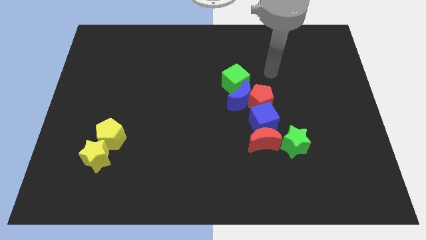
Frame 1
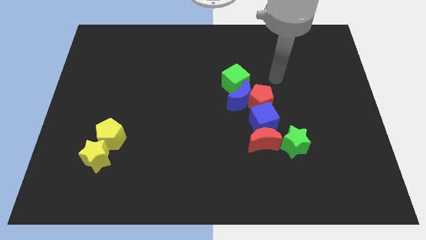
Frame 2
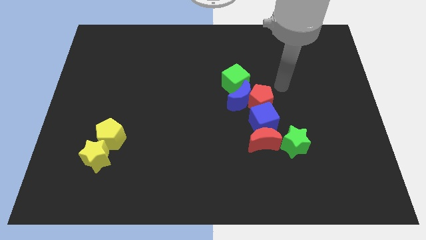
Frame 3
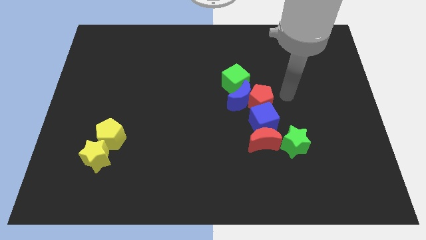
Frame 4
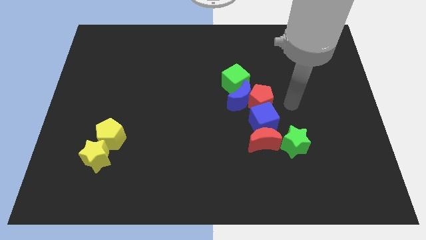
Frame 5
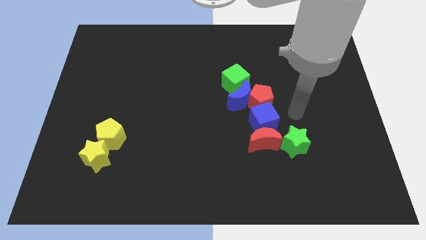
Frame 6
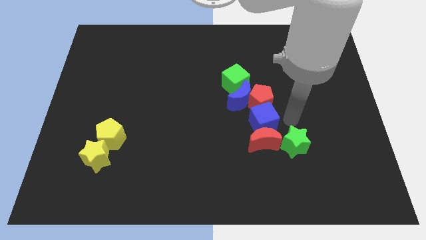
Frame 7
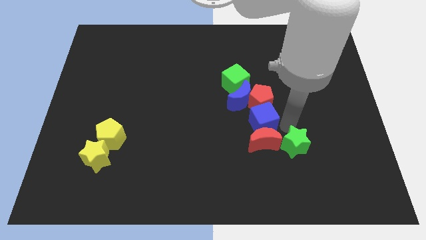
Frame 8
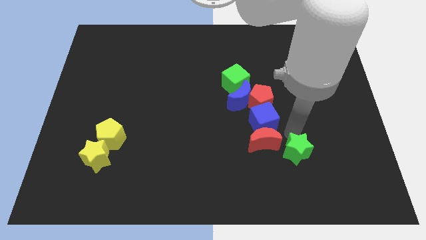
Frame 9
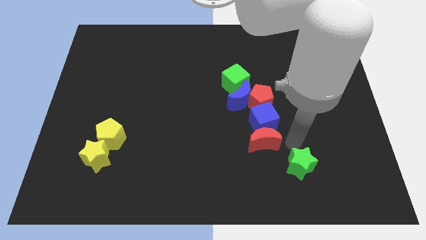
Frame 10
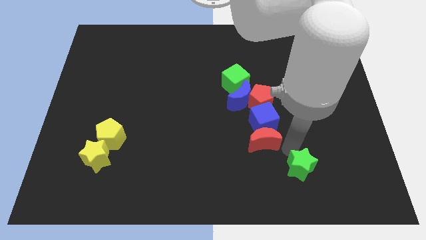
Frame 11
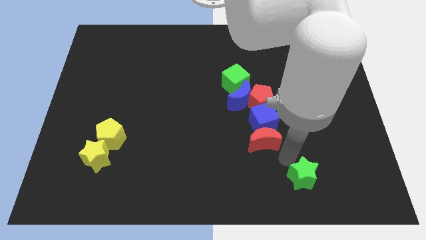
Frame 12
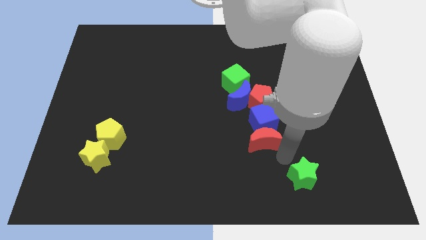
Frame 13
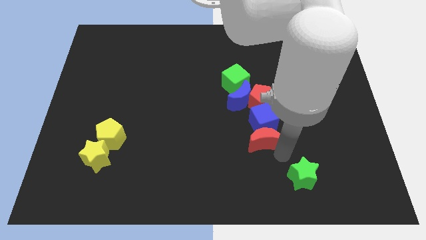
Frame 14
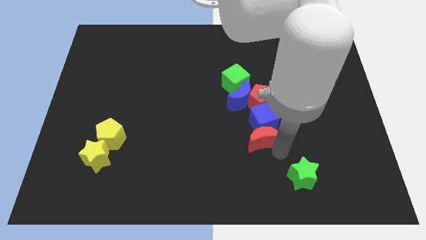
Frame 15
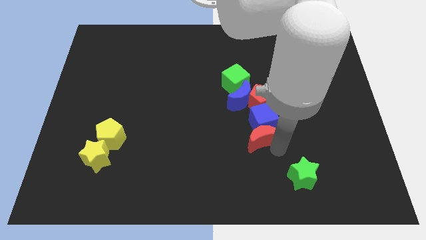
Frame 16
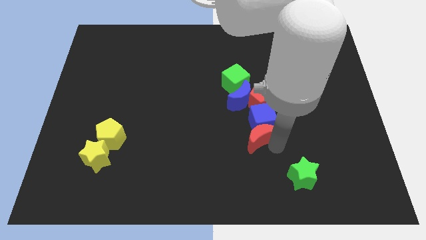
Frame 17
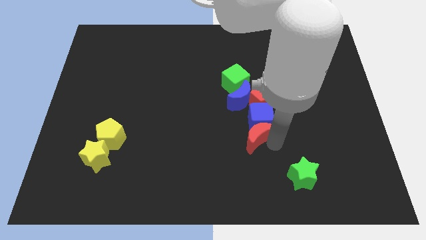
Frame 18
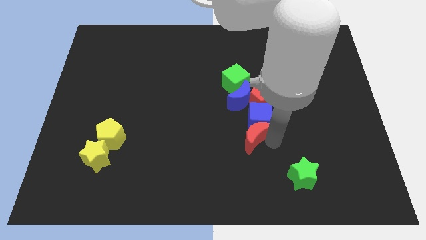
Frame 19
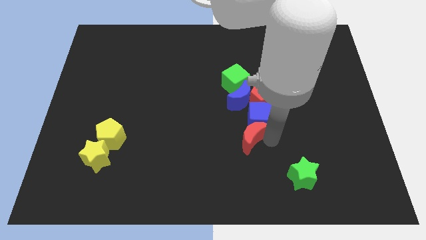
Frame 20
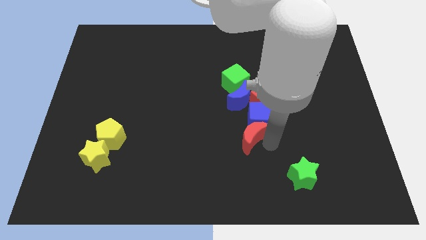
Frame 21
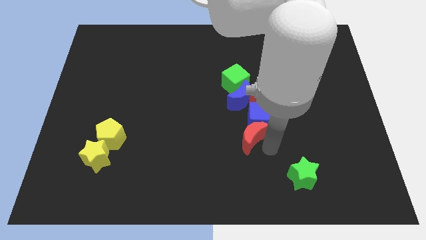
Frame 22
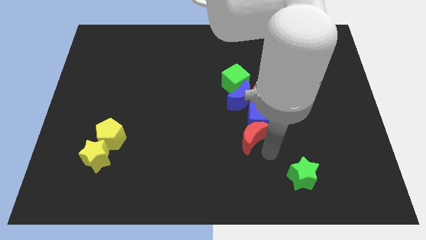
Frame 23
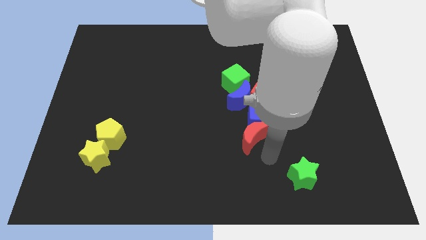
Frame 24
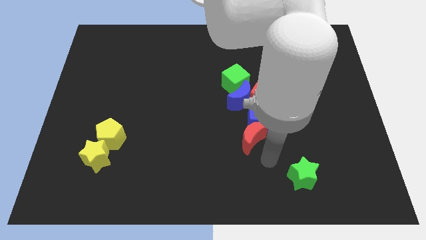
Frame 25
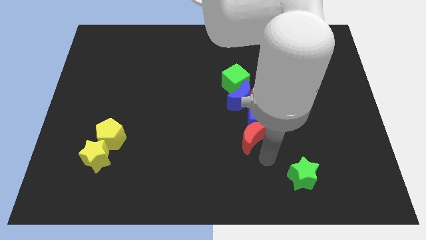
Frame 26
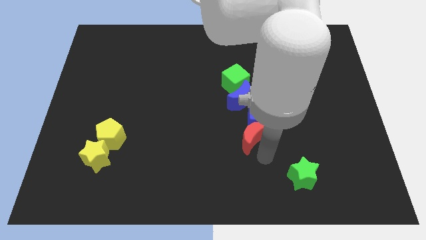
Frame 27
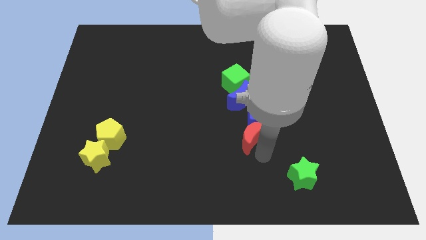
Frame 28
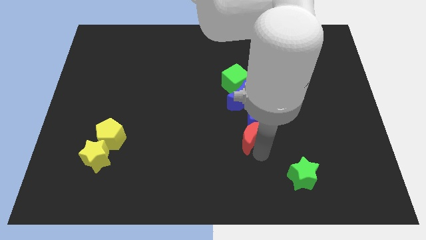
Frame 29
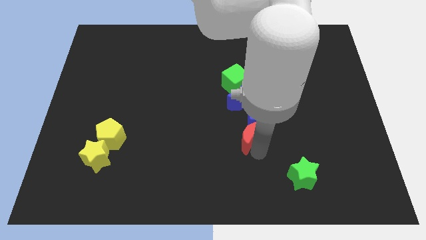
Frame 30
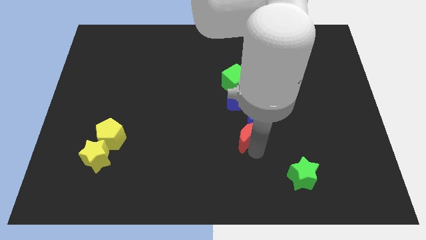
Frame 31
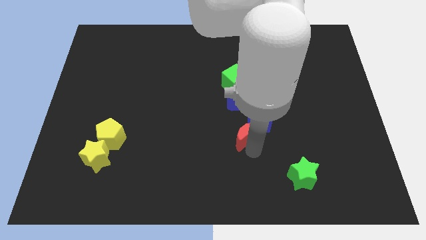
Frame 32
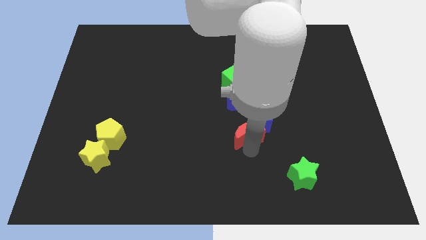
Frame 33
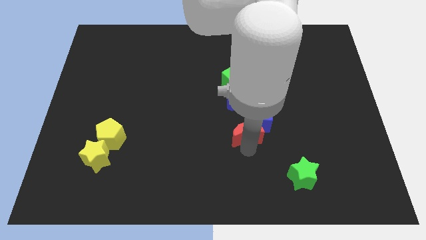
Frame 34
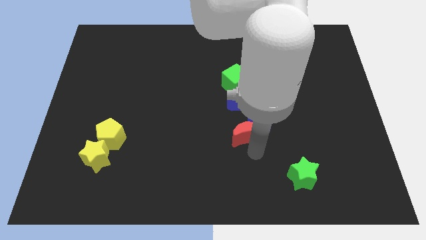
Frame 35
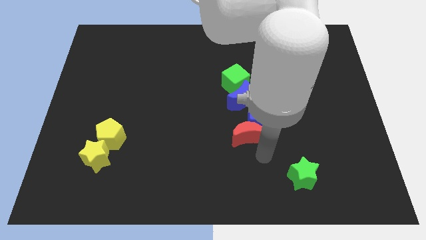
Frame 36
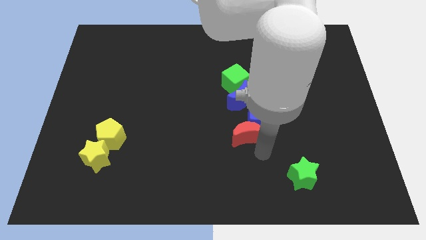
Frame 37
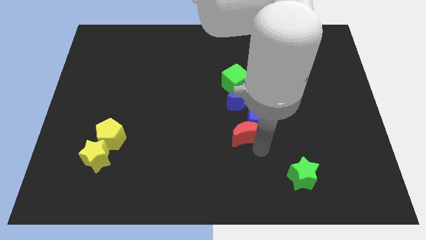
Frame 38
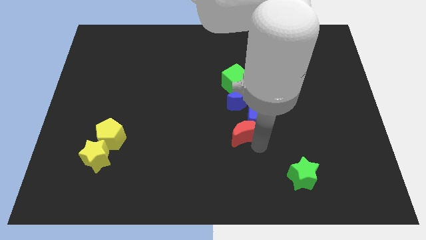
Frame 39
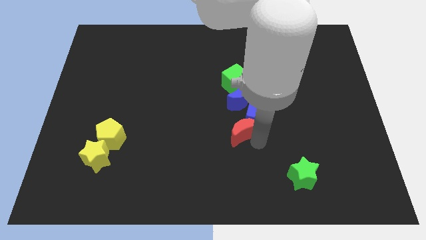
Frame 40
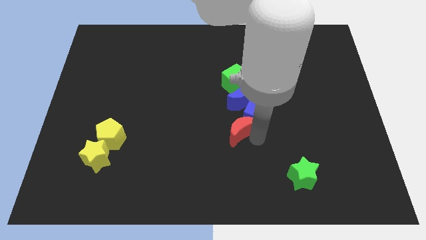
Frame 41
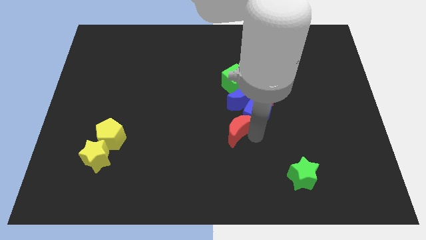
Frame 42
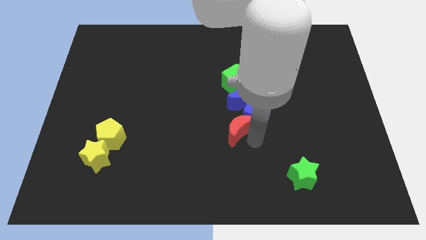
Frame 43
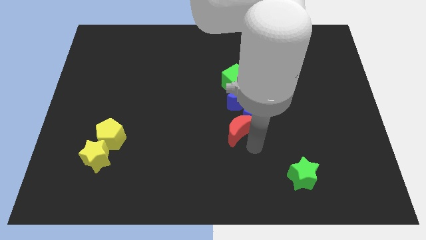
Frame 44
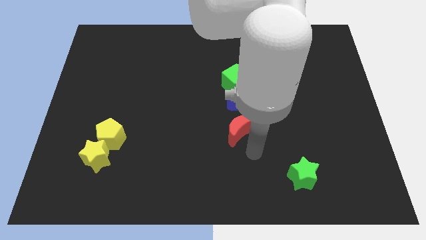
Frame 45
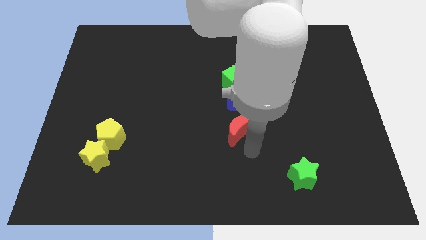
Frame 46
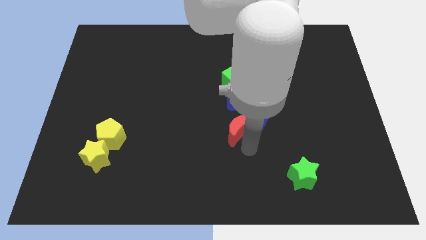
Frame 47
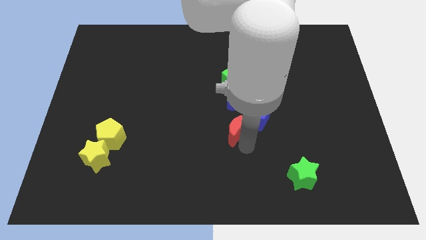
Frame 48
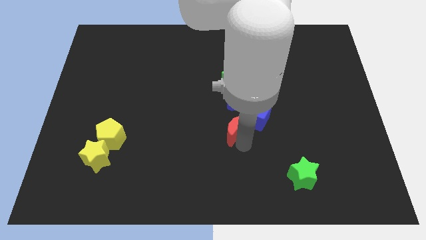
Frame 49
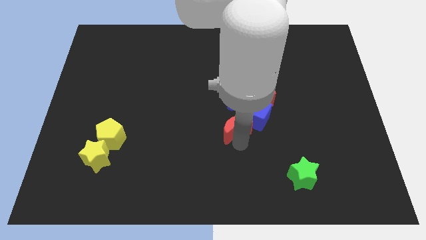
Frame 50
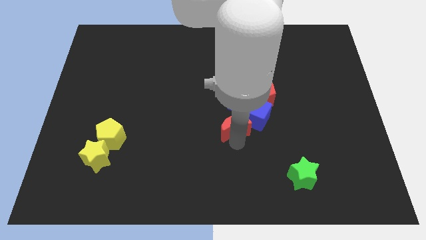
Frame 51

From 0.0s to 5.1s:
slightly move the red moon up and to the left

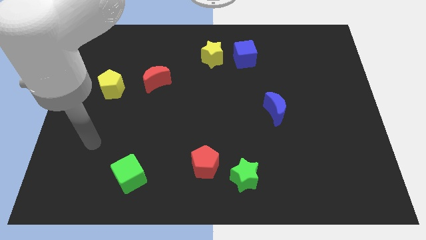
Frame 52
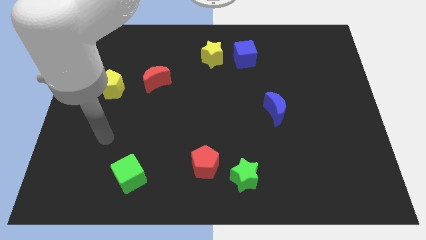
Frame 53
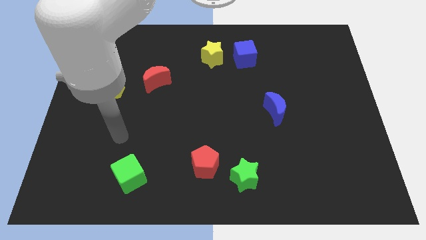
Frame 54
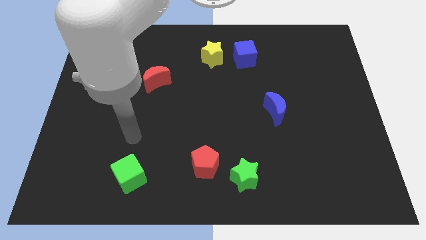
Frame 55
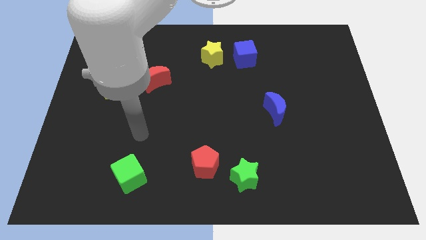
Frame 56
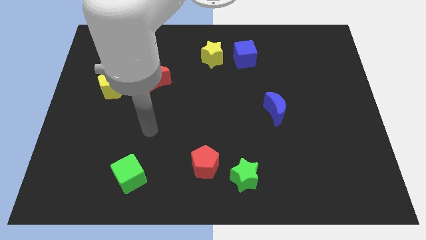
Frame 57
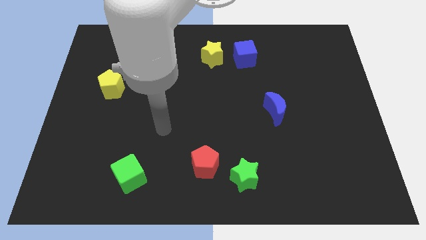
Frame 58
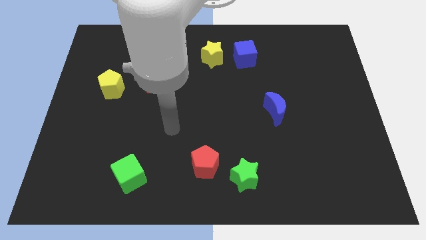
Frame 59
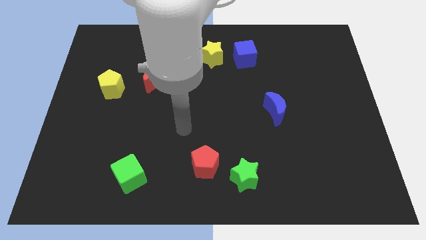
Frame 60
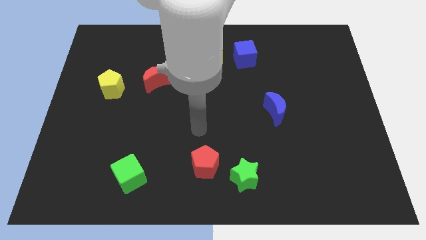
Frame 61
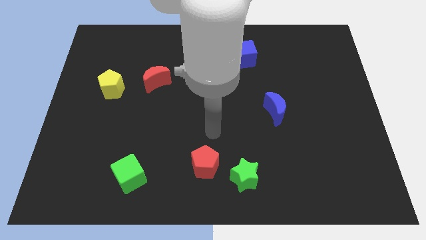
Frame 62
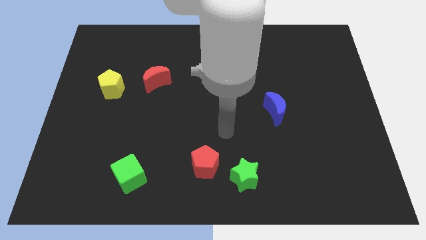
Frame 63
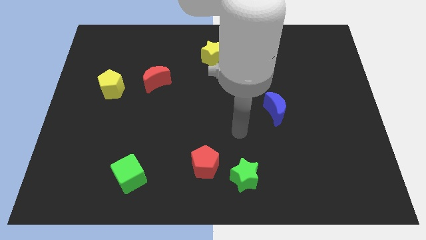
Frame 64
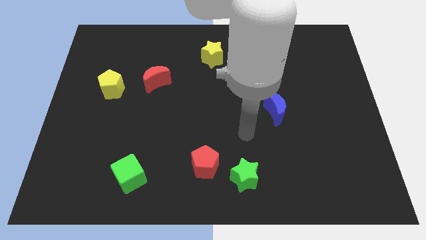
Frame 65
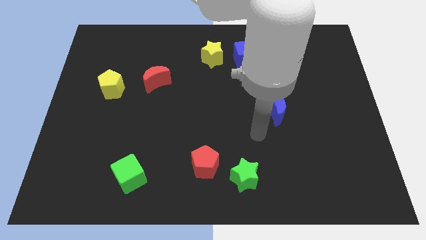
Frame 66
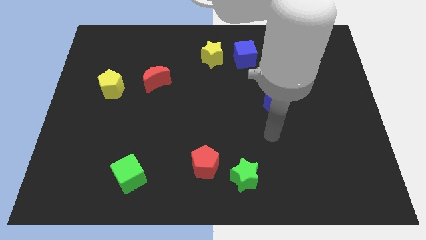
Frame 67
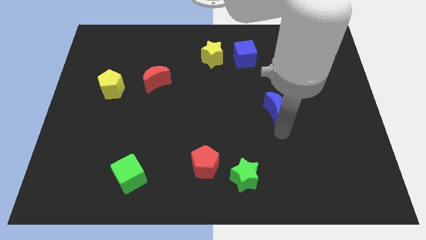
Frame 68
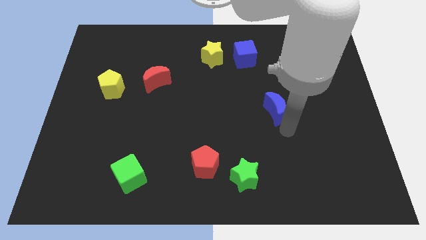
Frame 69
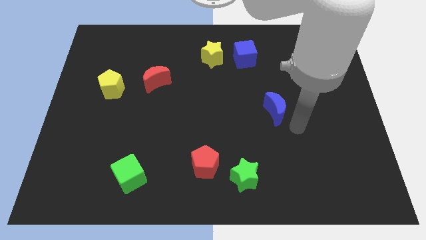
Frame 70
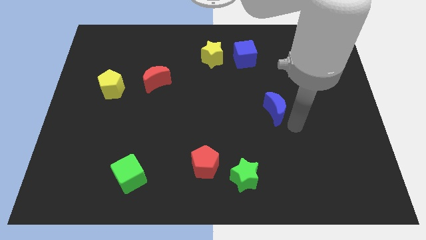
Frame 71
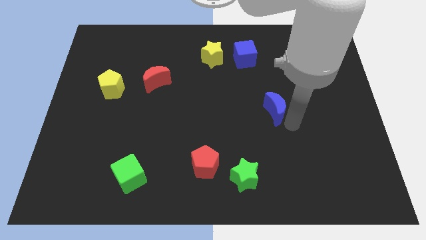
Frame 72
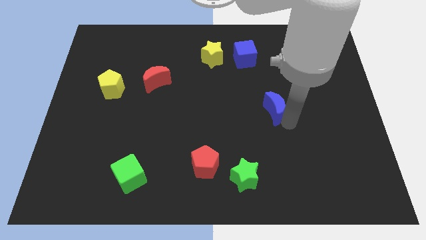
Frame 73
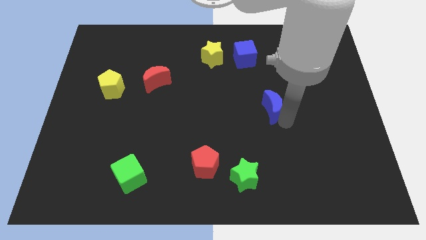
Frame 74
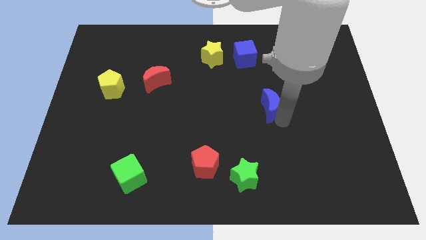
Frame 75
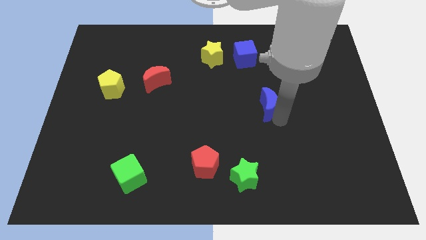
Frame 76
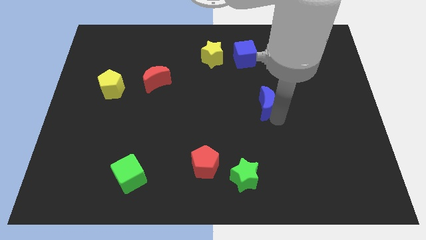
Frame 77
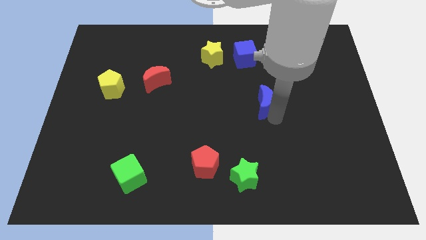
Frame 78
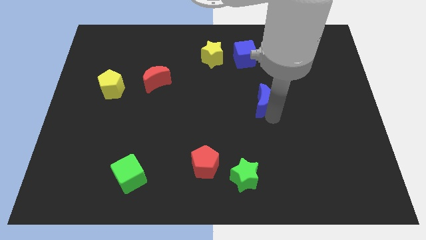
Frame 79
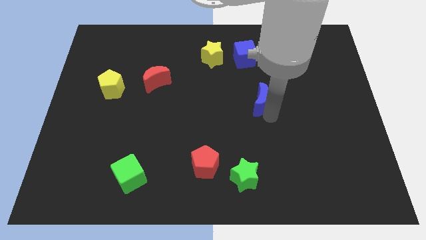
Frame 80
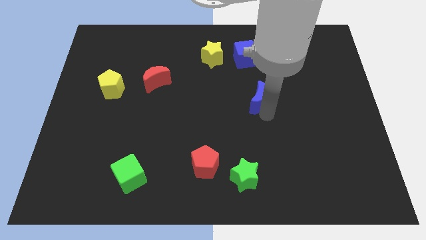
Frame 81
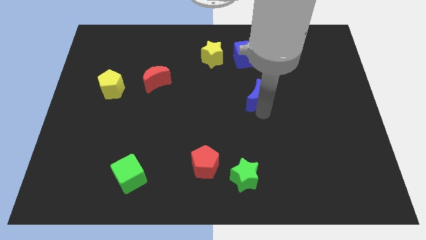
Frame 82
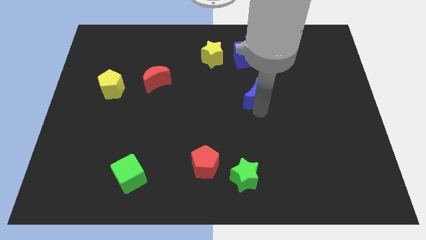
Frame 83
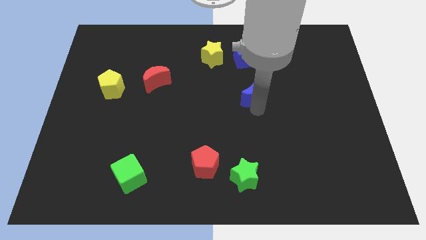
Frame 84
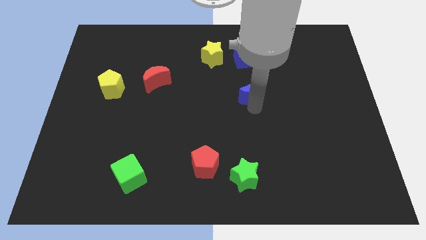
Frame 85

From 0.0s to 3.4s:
push the blue moon slightly up and left
